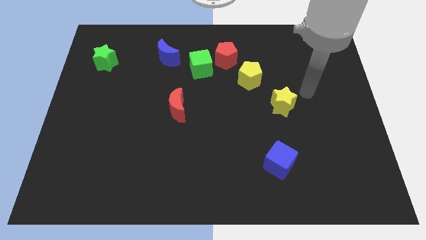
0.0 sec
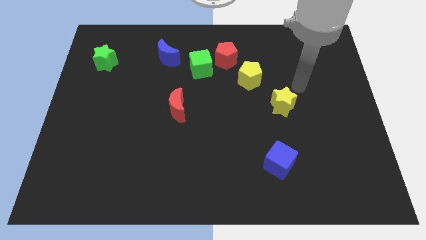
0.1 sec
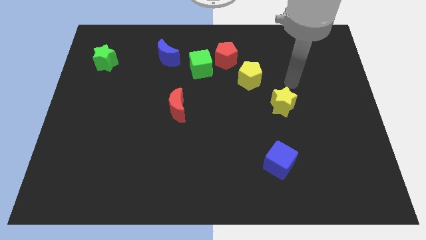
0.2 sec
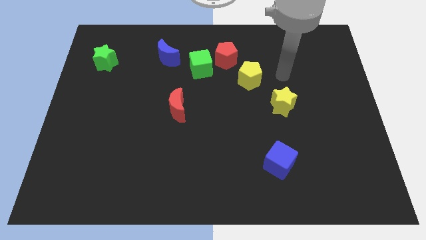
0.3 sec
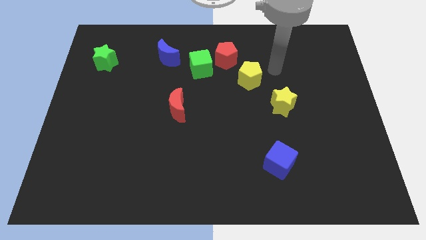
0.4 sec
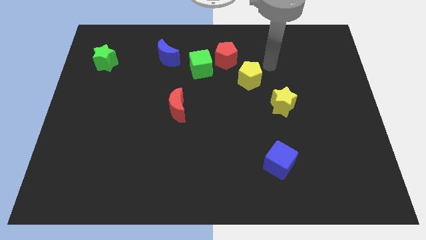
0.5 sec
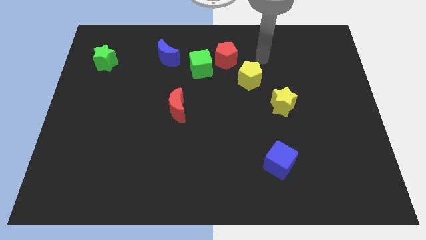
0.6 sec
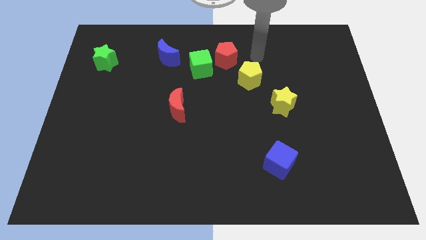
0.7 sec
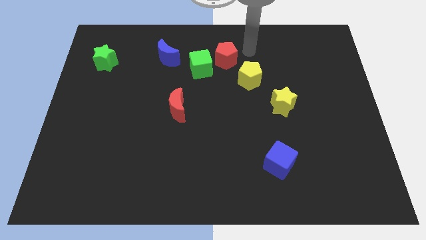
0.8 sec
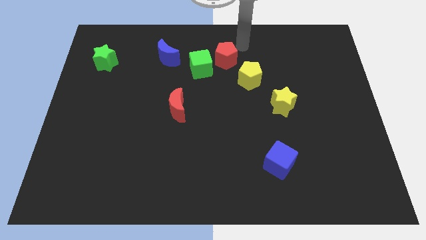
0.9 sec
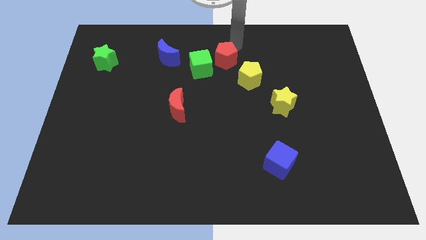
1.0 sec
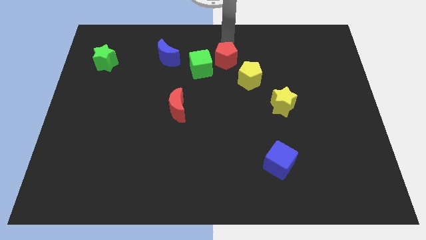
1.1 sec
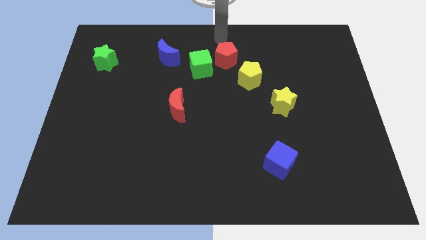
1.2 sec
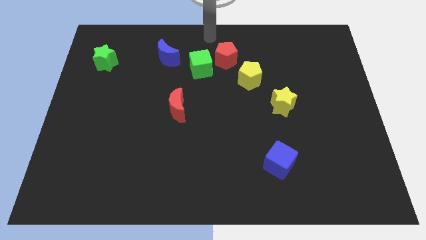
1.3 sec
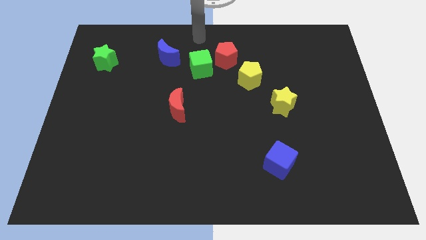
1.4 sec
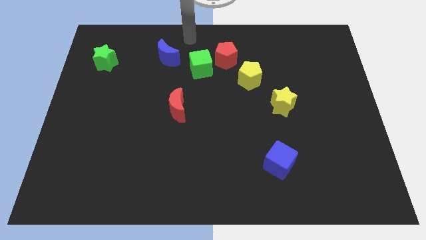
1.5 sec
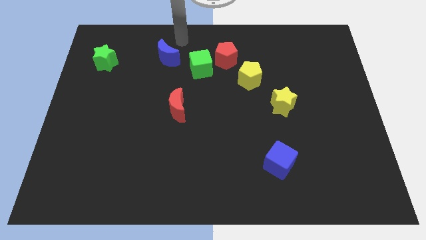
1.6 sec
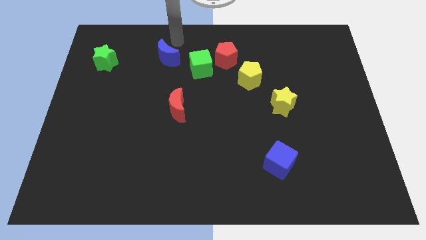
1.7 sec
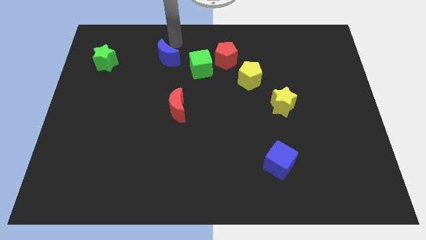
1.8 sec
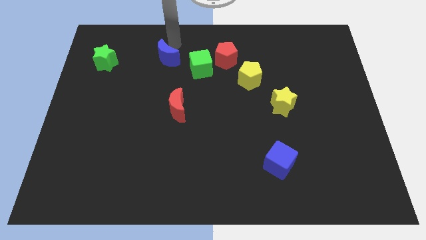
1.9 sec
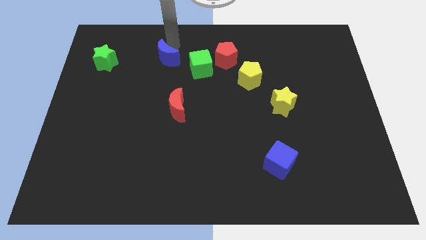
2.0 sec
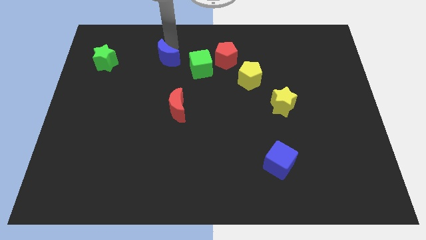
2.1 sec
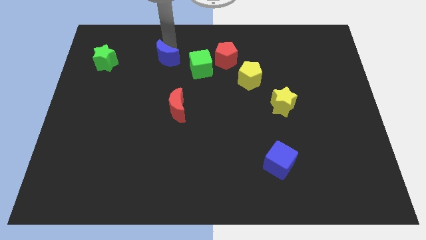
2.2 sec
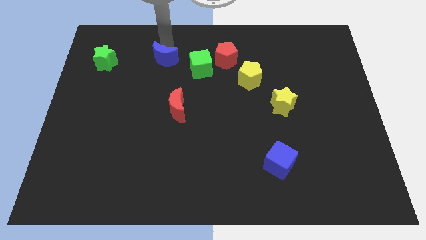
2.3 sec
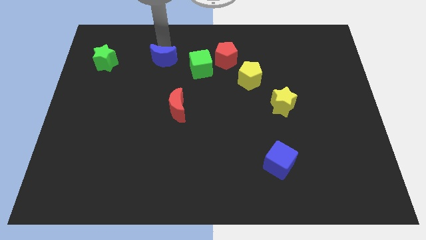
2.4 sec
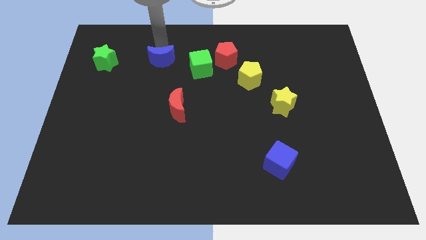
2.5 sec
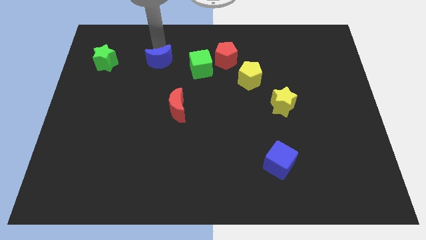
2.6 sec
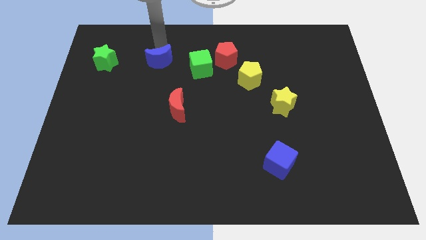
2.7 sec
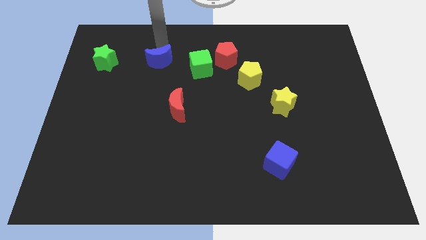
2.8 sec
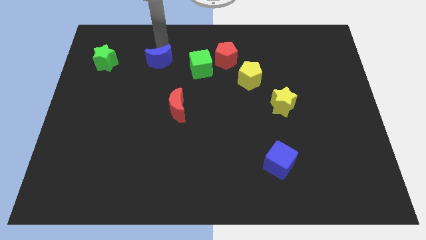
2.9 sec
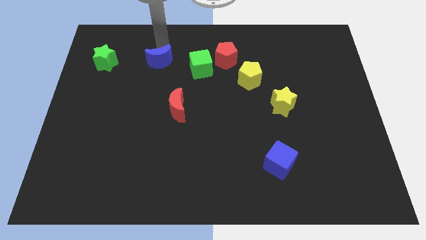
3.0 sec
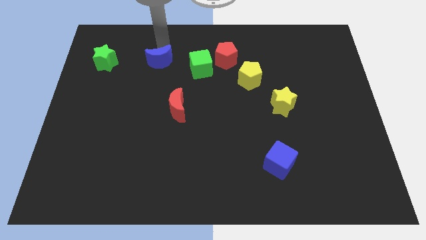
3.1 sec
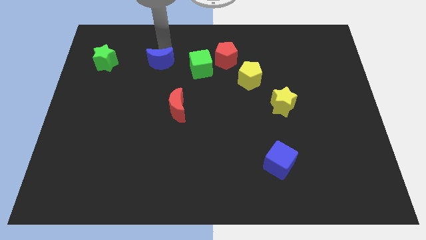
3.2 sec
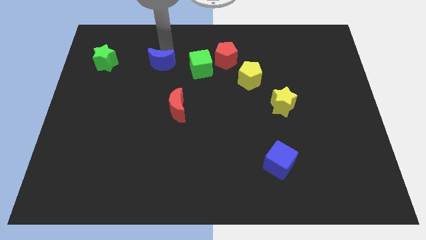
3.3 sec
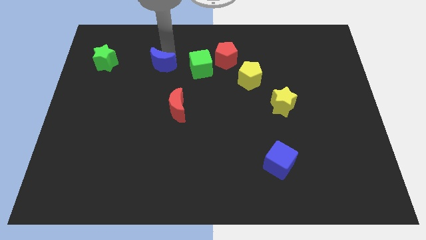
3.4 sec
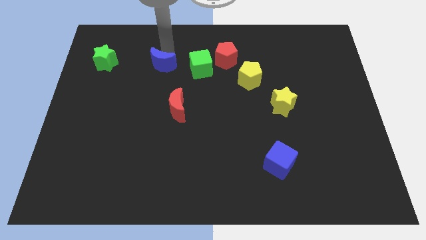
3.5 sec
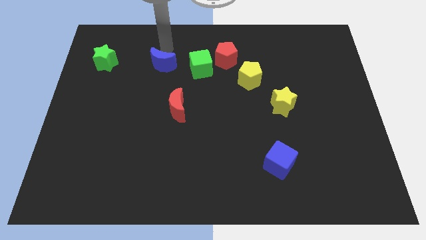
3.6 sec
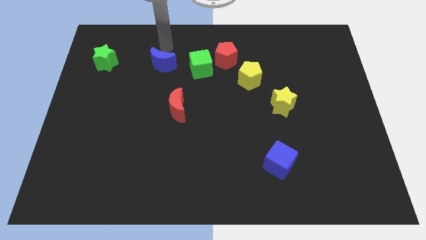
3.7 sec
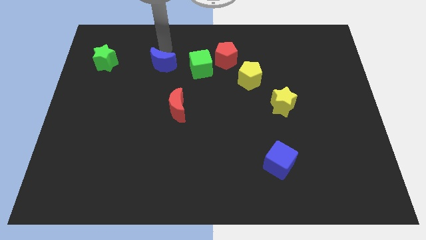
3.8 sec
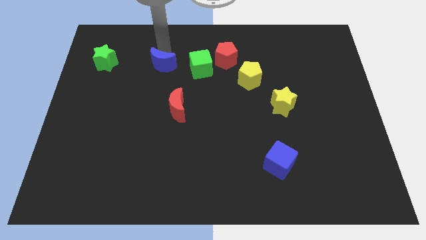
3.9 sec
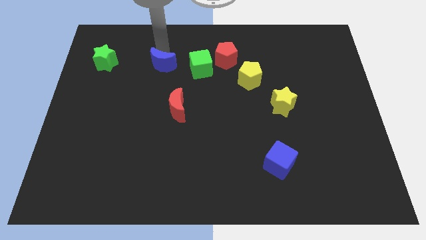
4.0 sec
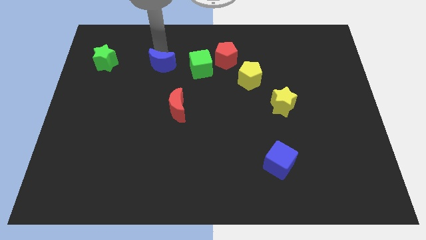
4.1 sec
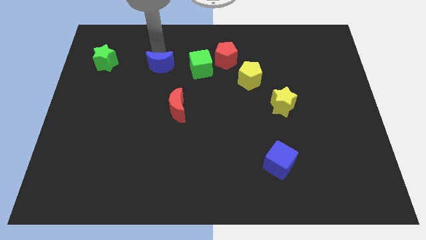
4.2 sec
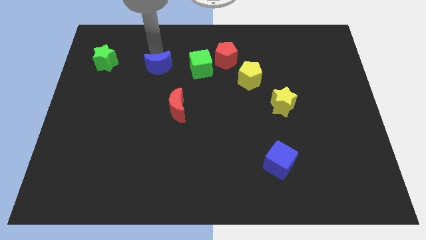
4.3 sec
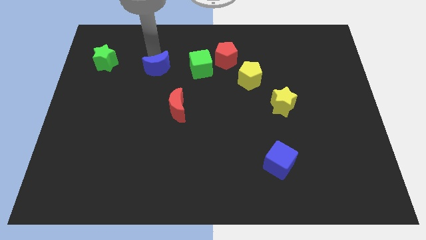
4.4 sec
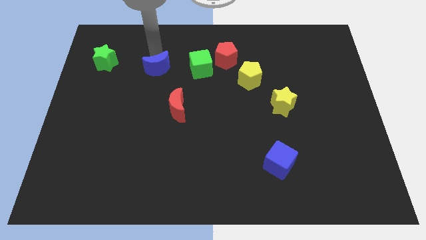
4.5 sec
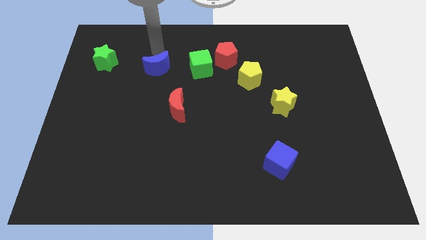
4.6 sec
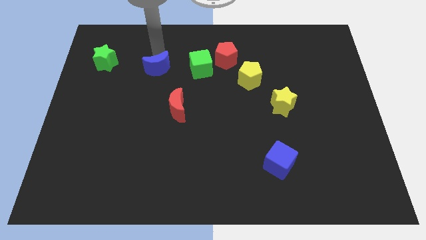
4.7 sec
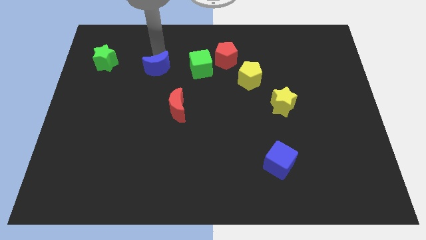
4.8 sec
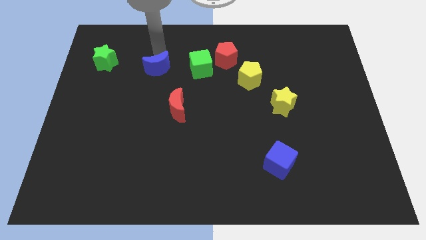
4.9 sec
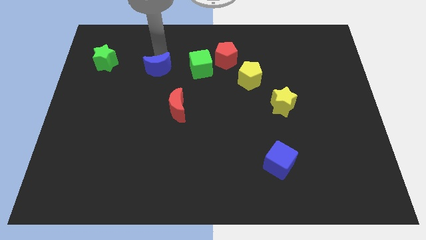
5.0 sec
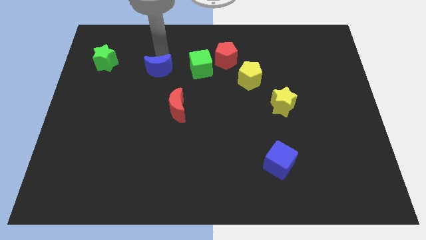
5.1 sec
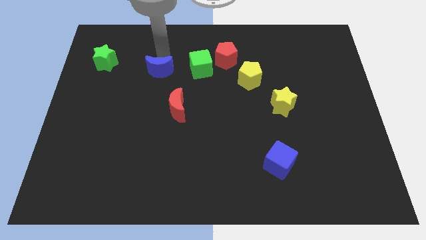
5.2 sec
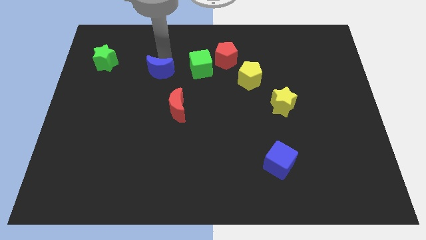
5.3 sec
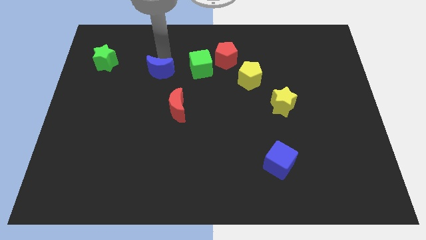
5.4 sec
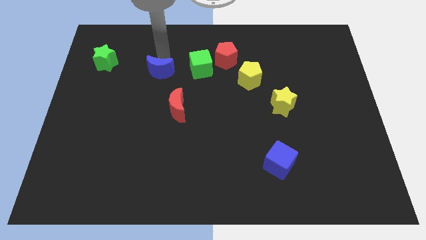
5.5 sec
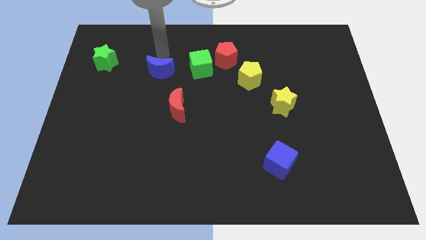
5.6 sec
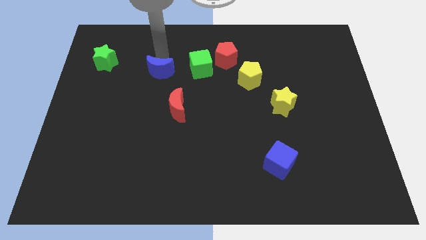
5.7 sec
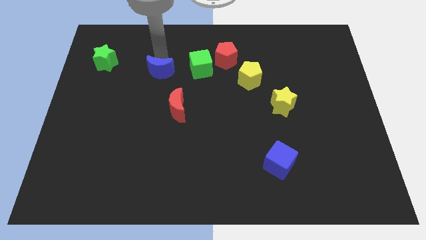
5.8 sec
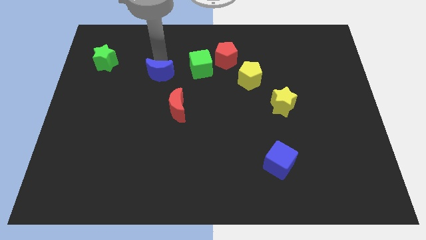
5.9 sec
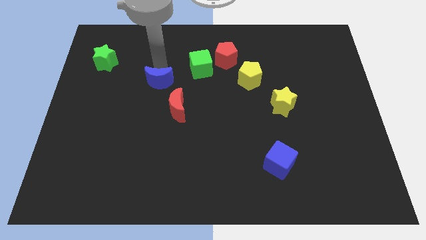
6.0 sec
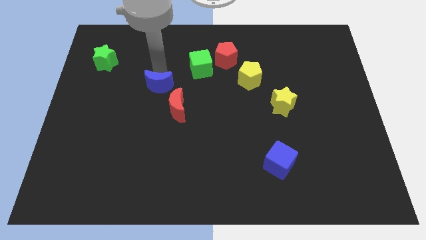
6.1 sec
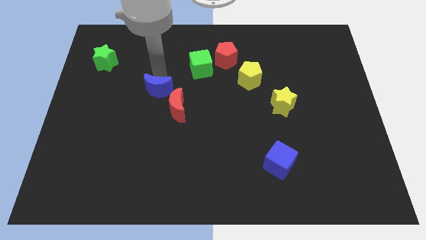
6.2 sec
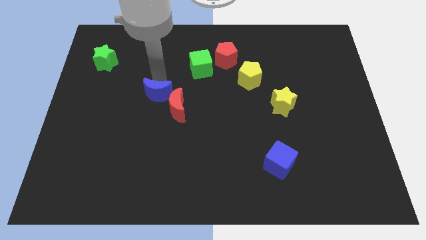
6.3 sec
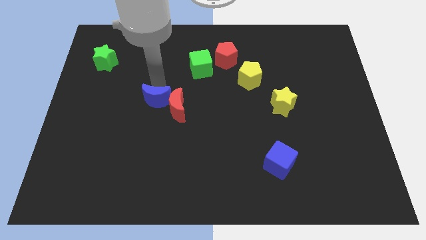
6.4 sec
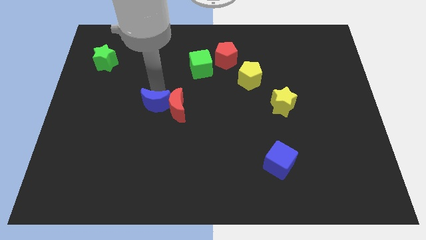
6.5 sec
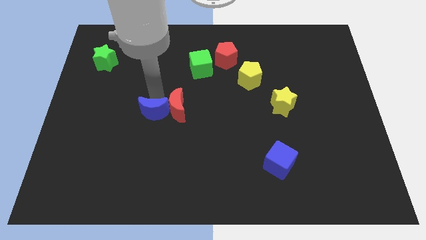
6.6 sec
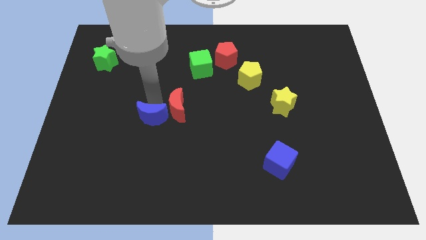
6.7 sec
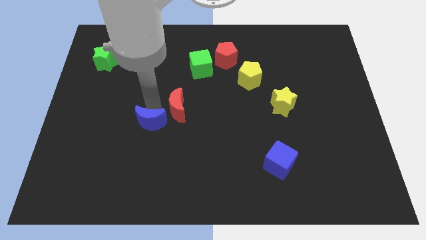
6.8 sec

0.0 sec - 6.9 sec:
push the blue moon downwards

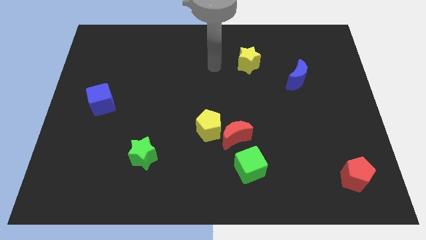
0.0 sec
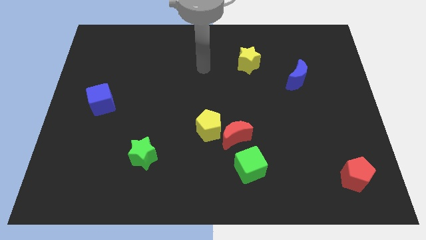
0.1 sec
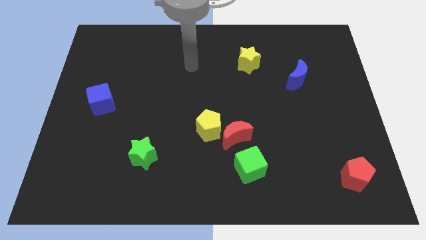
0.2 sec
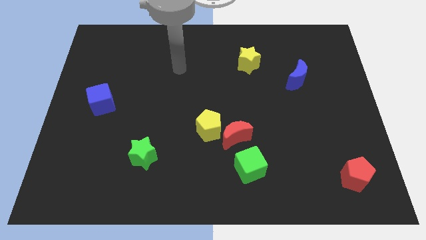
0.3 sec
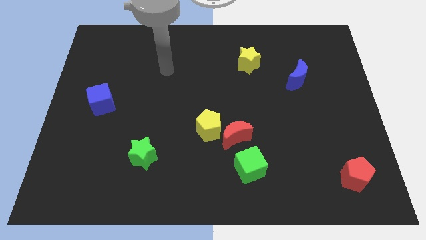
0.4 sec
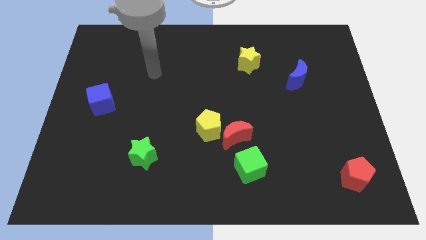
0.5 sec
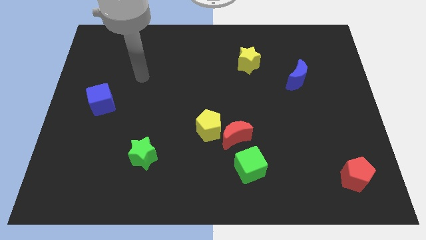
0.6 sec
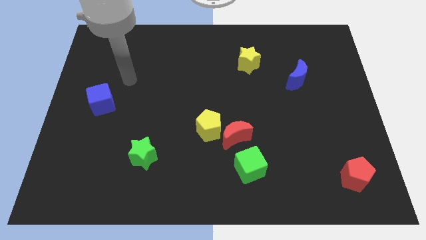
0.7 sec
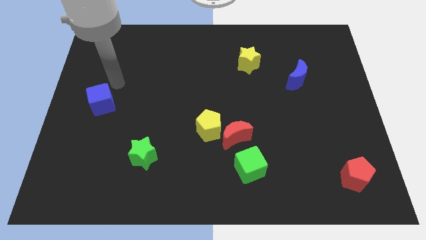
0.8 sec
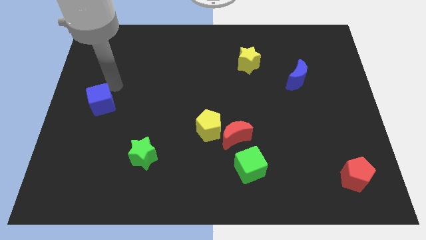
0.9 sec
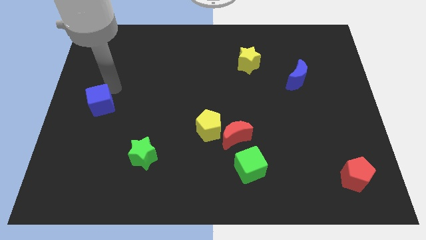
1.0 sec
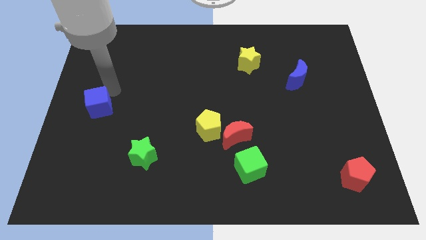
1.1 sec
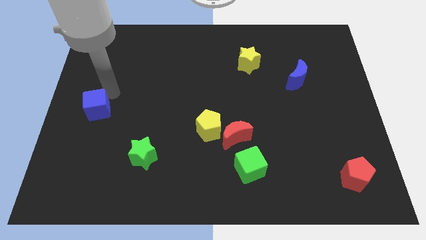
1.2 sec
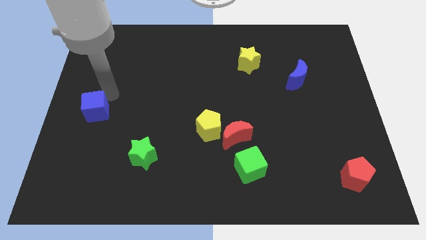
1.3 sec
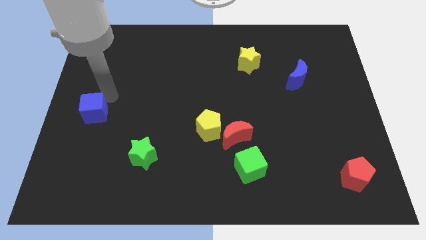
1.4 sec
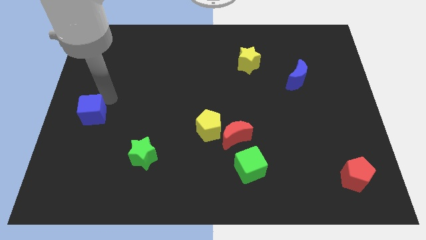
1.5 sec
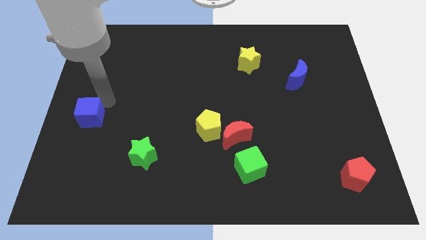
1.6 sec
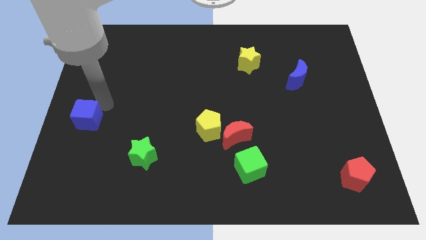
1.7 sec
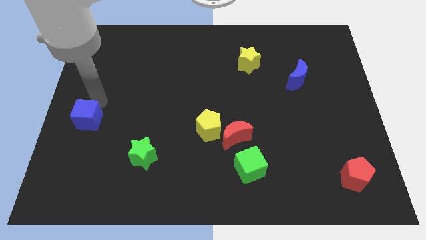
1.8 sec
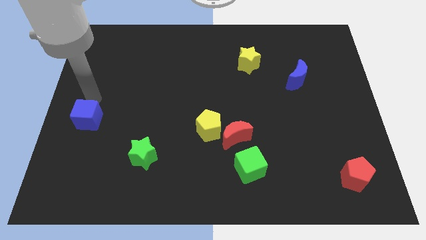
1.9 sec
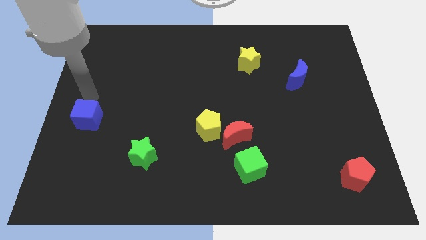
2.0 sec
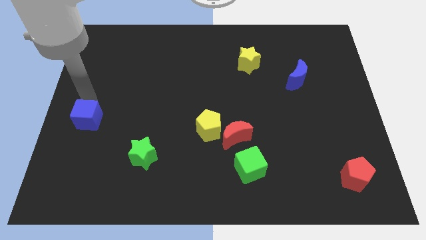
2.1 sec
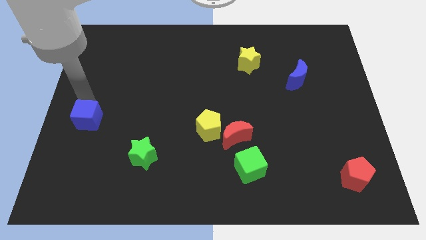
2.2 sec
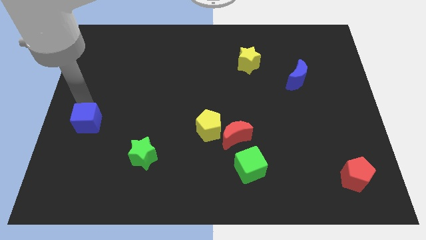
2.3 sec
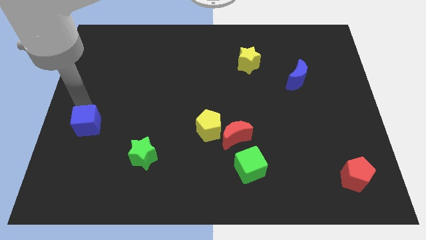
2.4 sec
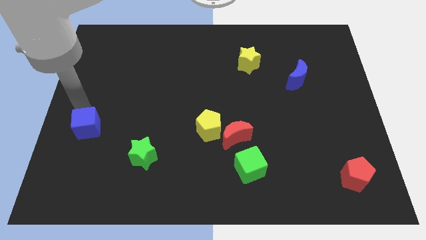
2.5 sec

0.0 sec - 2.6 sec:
slightly slide the blue cube downwards
